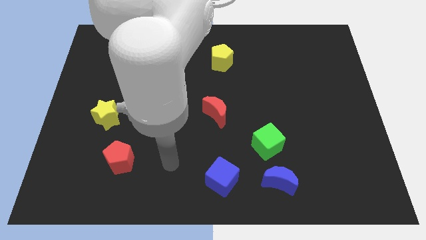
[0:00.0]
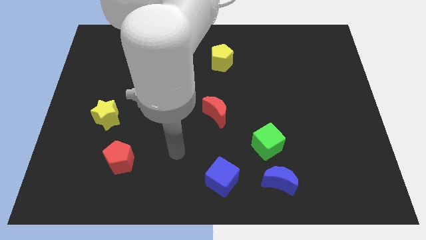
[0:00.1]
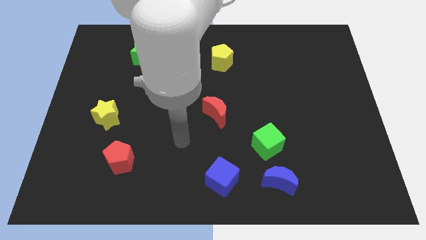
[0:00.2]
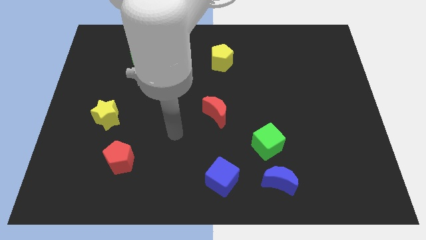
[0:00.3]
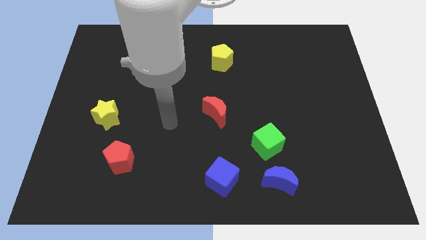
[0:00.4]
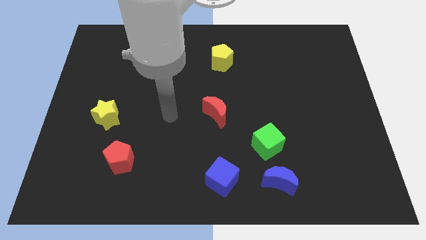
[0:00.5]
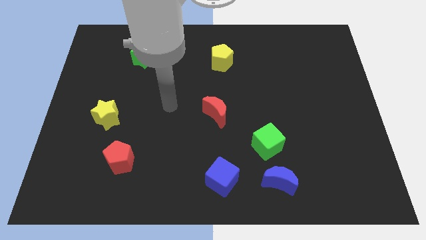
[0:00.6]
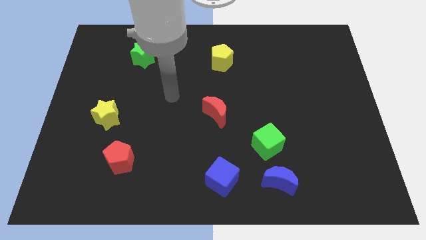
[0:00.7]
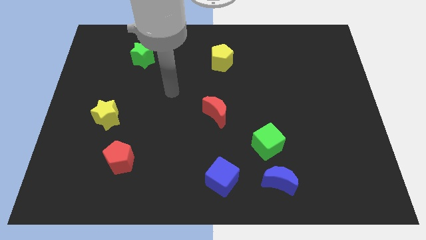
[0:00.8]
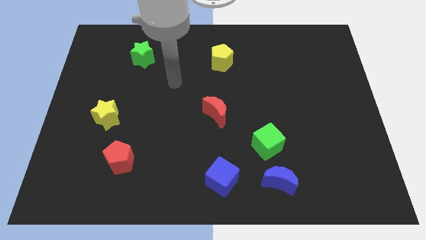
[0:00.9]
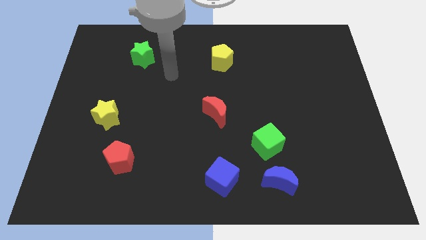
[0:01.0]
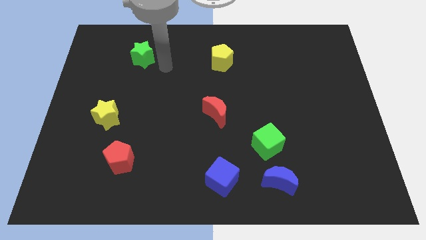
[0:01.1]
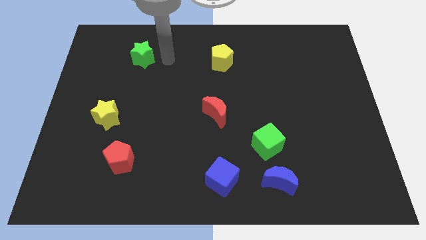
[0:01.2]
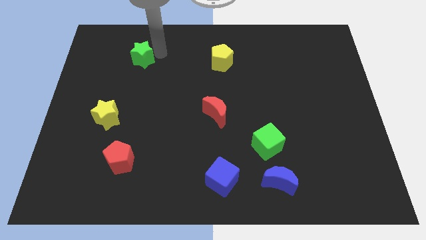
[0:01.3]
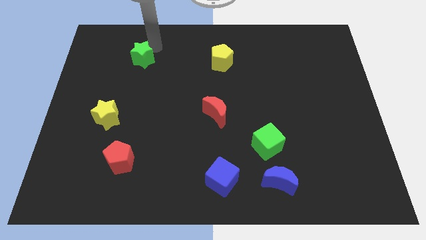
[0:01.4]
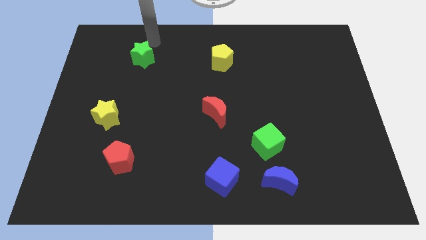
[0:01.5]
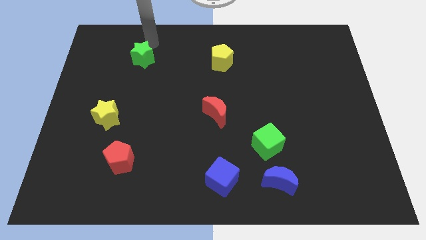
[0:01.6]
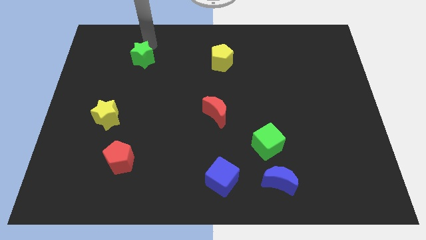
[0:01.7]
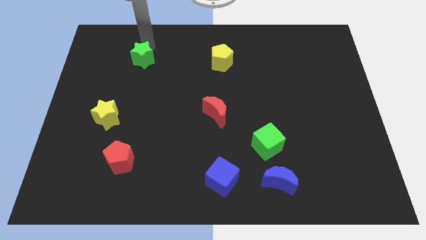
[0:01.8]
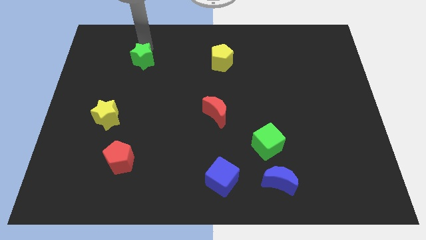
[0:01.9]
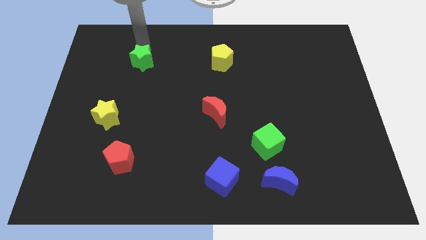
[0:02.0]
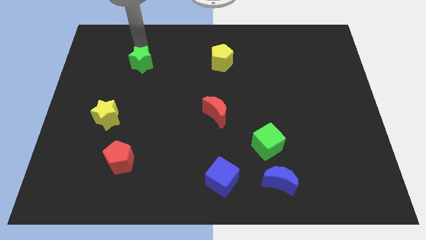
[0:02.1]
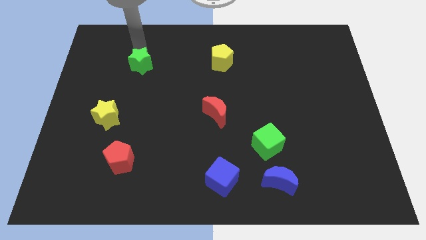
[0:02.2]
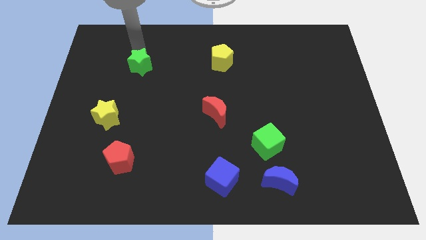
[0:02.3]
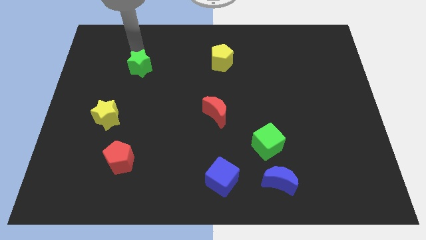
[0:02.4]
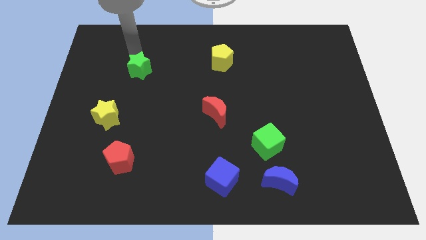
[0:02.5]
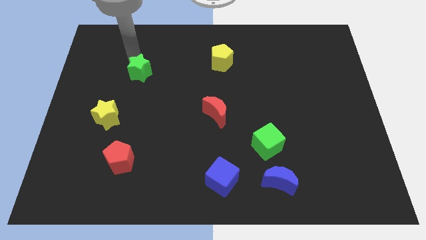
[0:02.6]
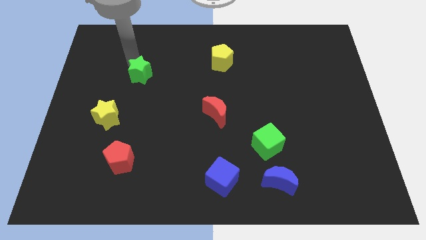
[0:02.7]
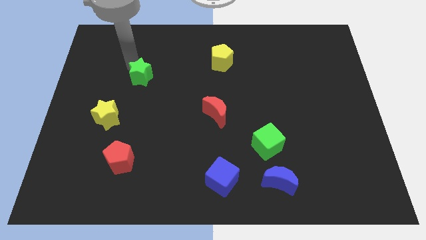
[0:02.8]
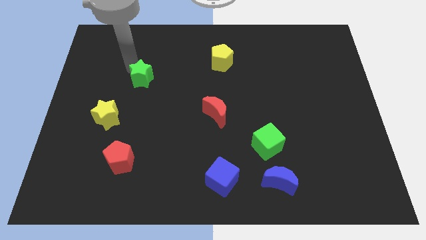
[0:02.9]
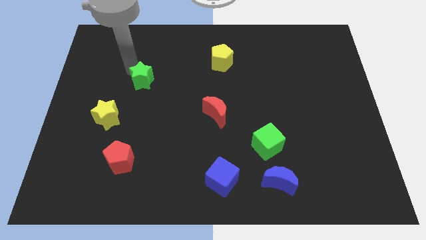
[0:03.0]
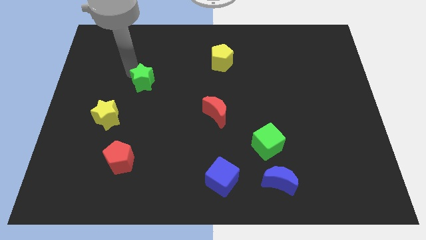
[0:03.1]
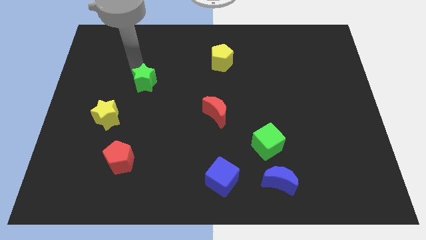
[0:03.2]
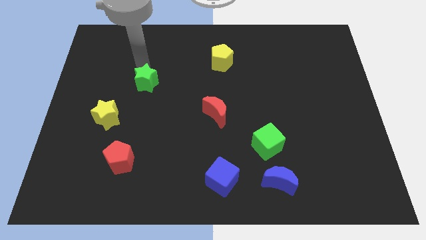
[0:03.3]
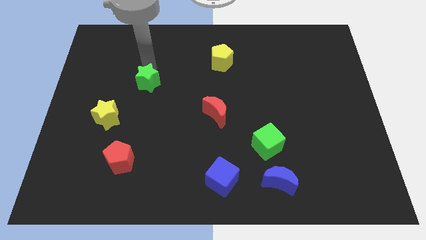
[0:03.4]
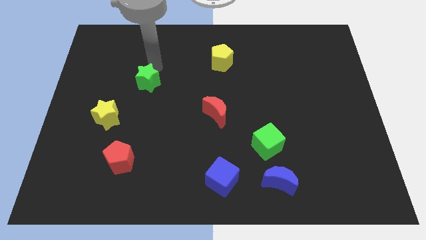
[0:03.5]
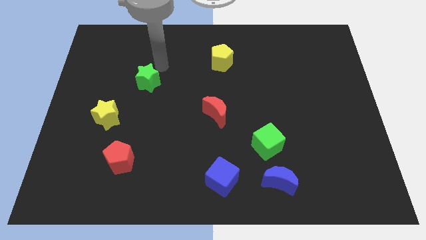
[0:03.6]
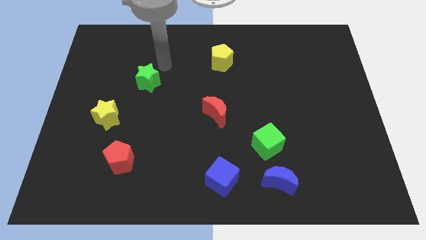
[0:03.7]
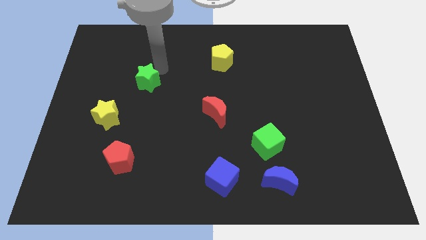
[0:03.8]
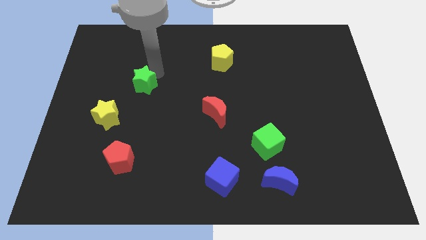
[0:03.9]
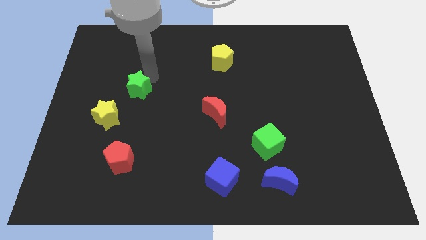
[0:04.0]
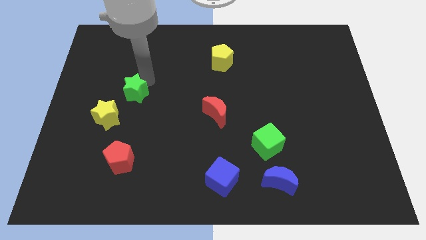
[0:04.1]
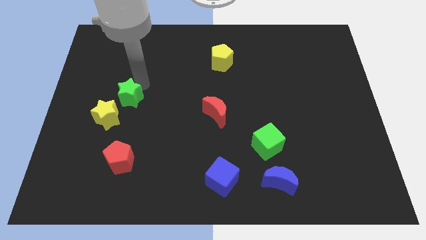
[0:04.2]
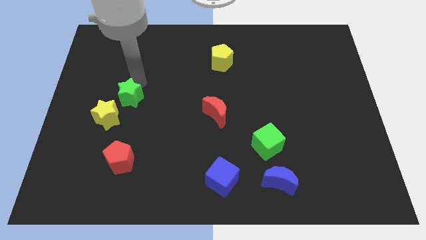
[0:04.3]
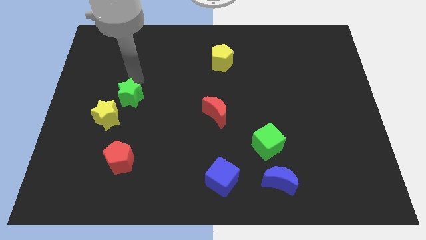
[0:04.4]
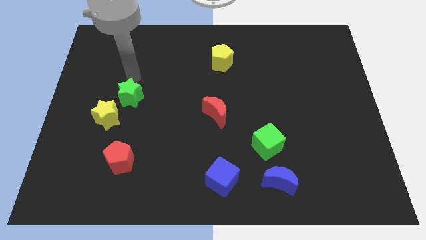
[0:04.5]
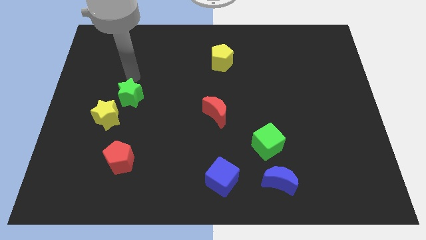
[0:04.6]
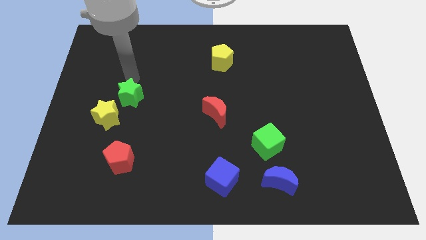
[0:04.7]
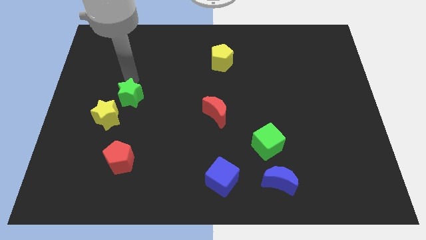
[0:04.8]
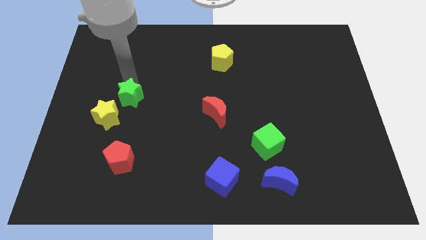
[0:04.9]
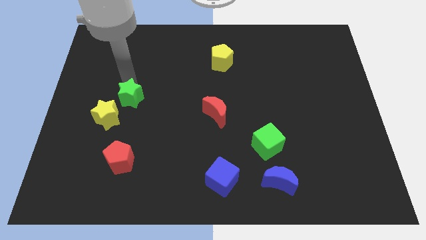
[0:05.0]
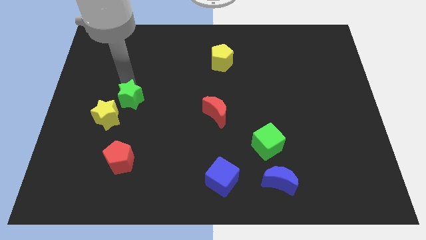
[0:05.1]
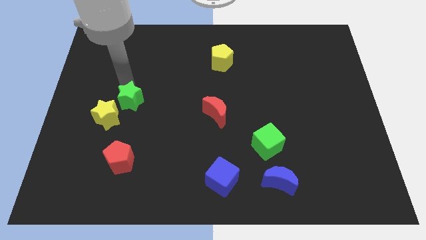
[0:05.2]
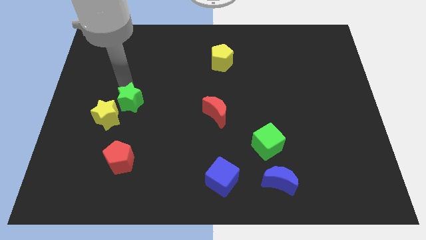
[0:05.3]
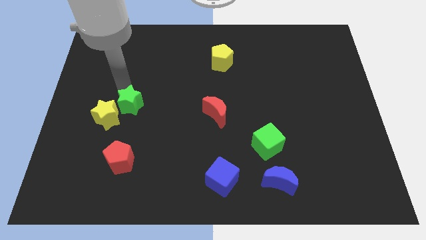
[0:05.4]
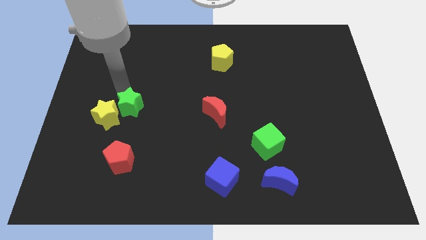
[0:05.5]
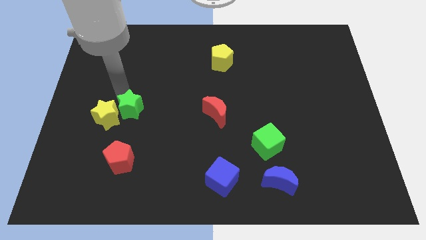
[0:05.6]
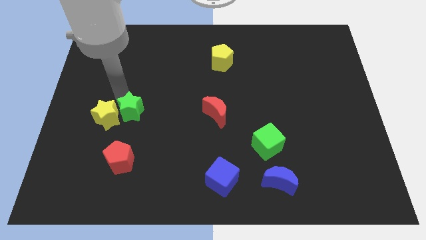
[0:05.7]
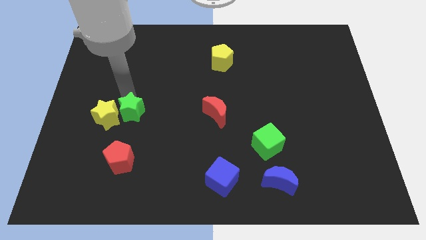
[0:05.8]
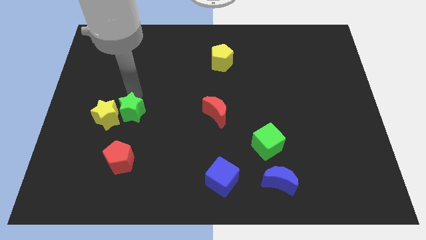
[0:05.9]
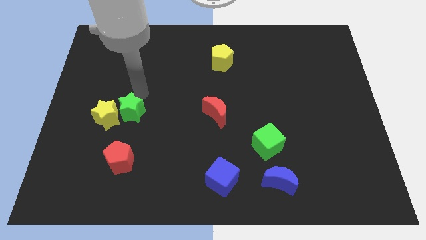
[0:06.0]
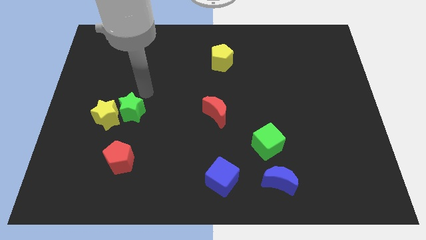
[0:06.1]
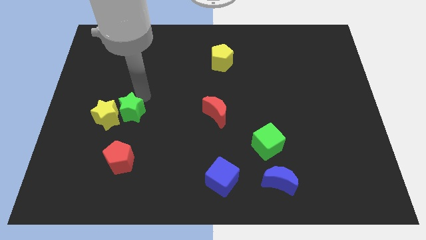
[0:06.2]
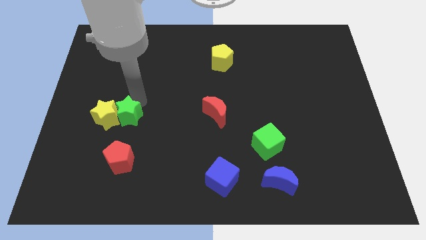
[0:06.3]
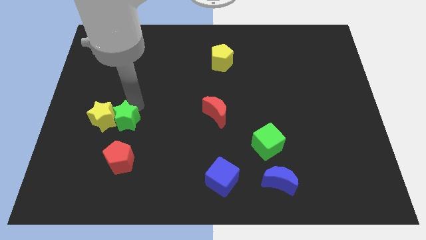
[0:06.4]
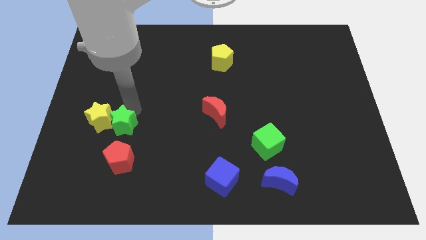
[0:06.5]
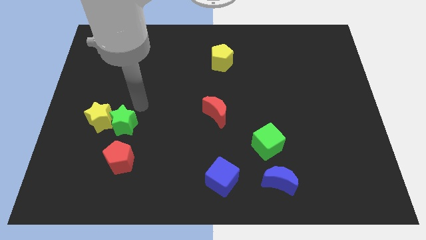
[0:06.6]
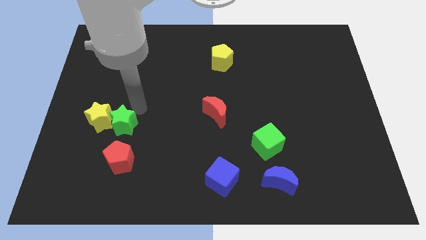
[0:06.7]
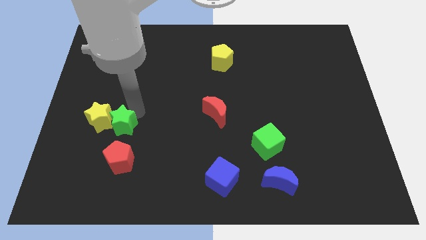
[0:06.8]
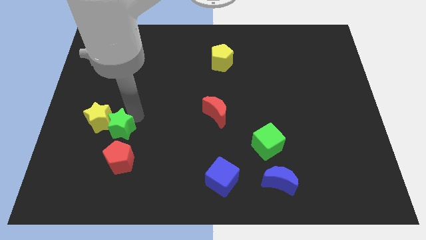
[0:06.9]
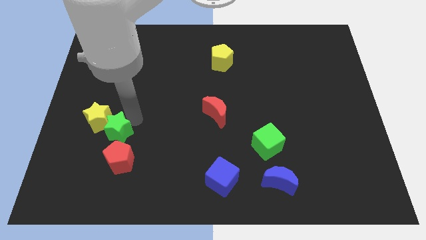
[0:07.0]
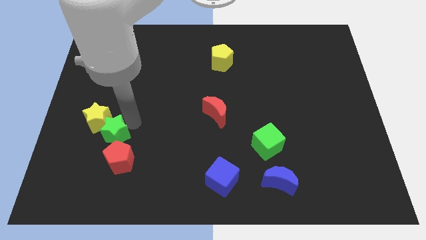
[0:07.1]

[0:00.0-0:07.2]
move the green star to the bottom side of the yellow star
